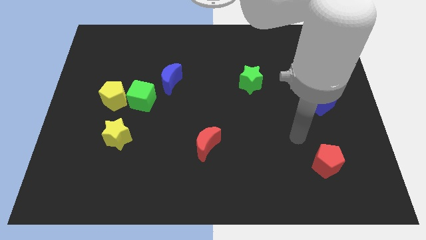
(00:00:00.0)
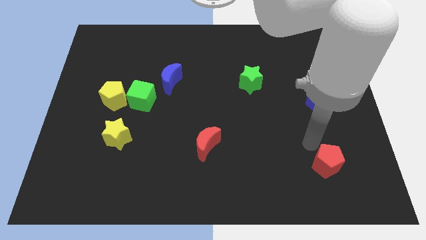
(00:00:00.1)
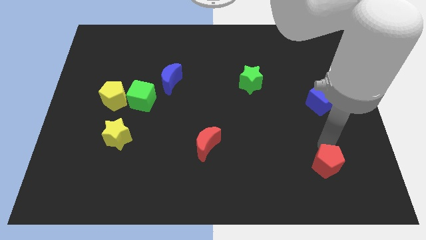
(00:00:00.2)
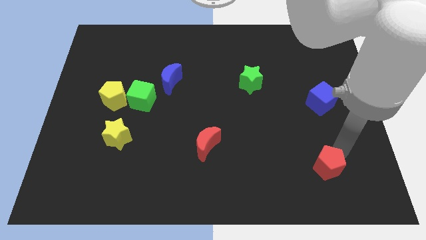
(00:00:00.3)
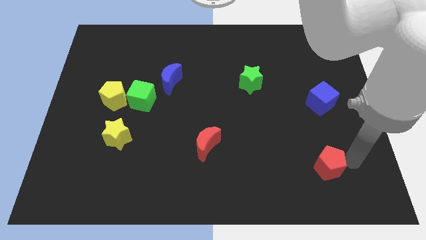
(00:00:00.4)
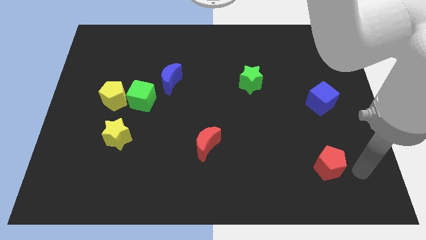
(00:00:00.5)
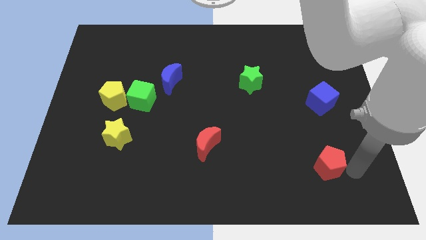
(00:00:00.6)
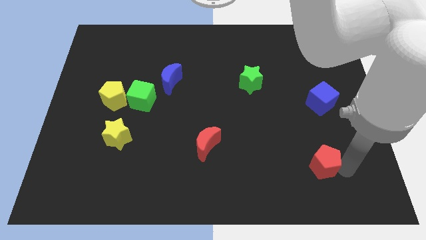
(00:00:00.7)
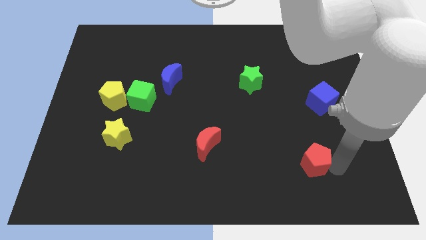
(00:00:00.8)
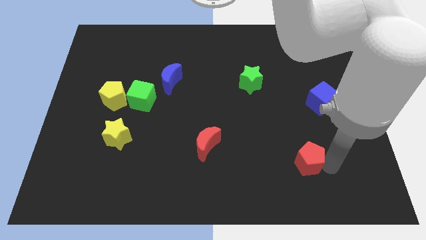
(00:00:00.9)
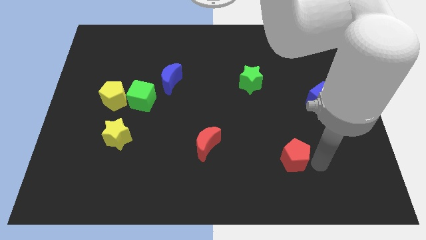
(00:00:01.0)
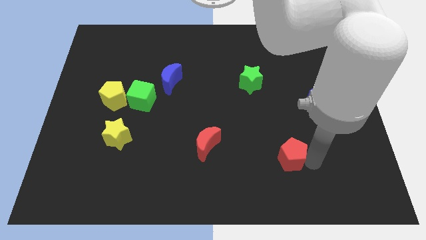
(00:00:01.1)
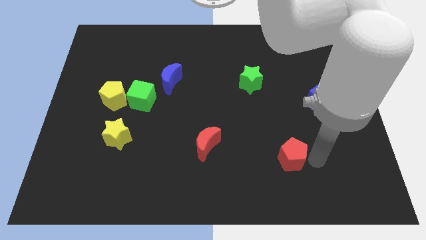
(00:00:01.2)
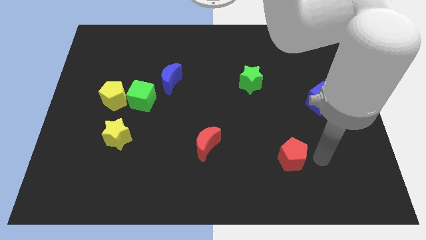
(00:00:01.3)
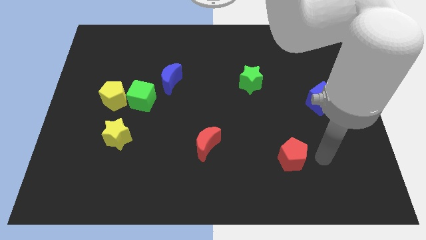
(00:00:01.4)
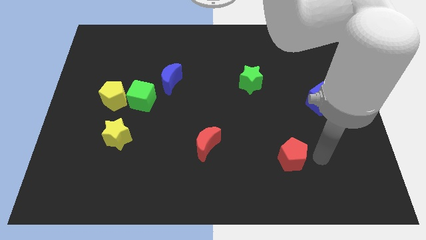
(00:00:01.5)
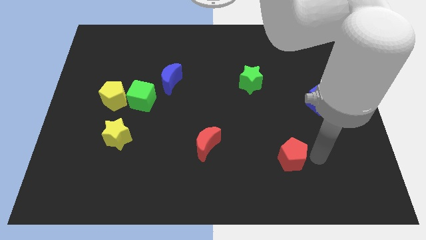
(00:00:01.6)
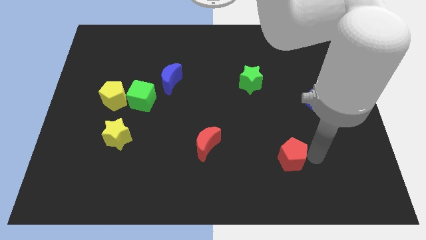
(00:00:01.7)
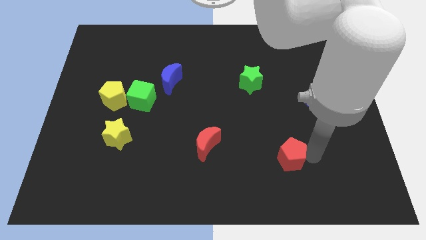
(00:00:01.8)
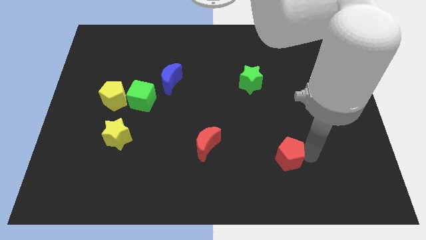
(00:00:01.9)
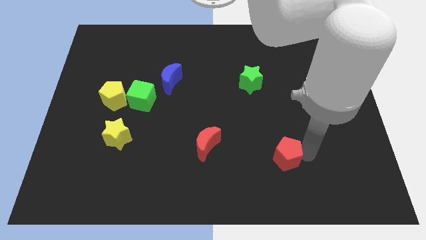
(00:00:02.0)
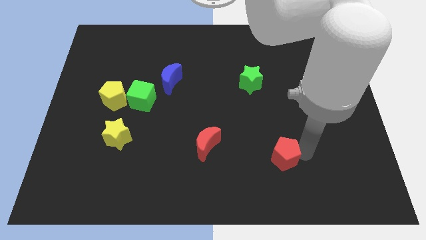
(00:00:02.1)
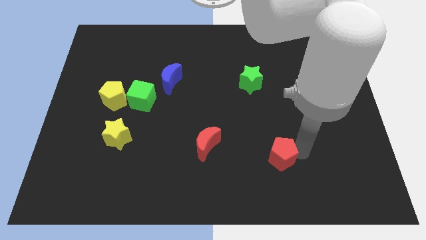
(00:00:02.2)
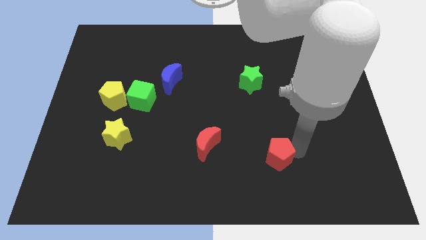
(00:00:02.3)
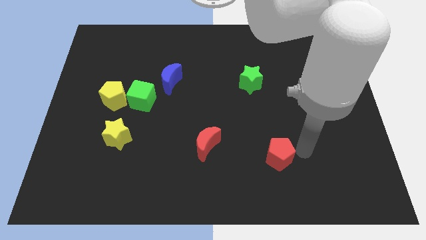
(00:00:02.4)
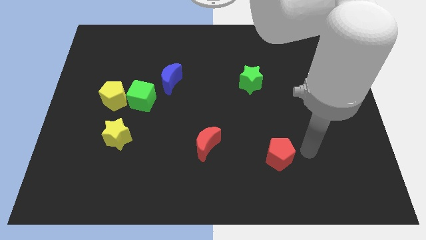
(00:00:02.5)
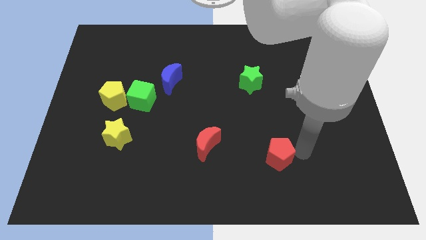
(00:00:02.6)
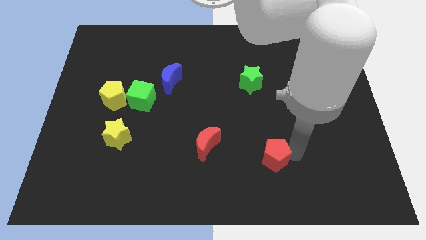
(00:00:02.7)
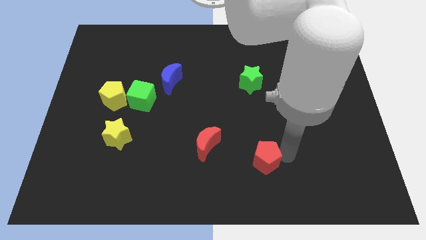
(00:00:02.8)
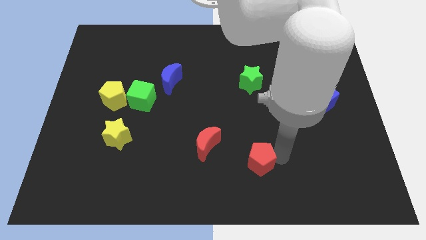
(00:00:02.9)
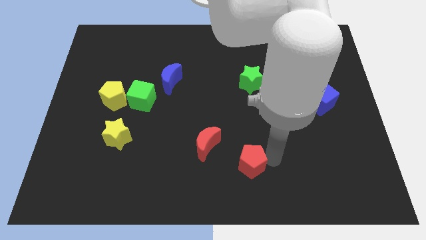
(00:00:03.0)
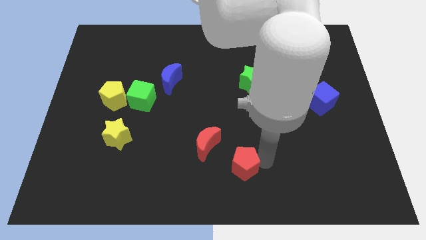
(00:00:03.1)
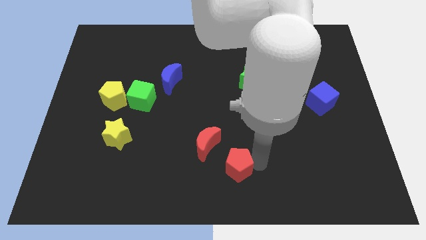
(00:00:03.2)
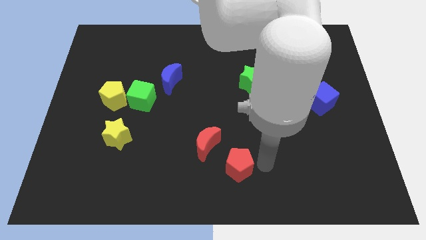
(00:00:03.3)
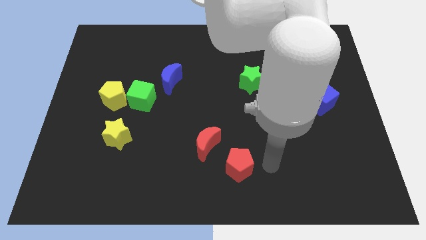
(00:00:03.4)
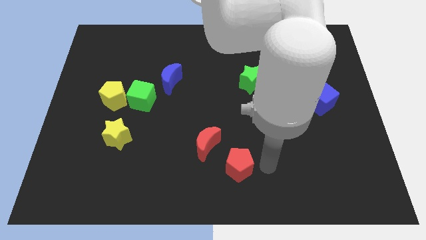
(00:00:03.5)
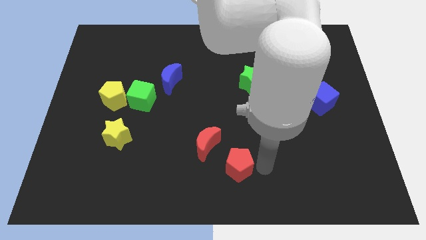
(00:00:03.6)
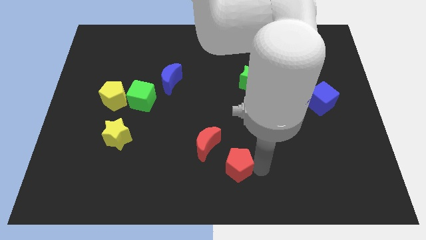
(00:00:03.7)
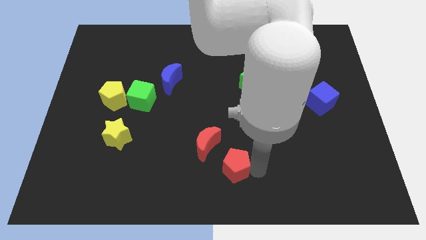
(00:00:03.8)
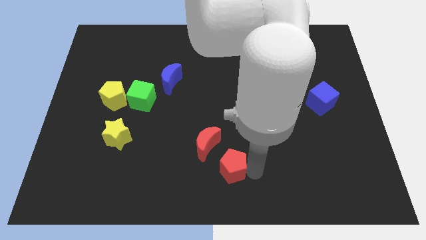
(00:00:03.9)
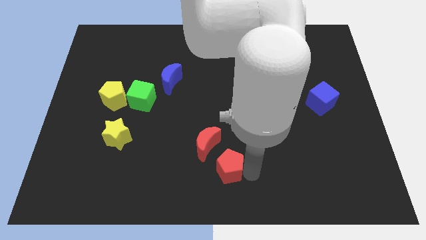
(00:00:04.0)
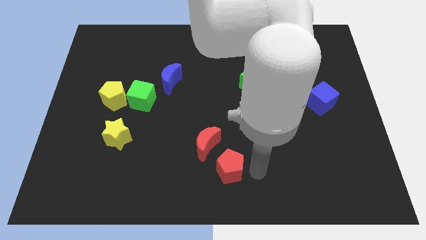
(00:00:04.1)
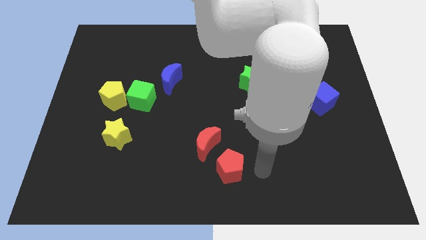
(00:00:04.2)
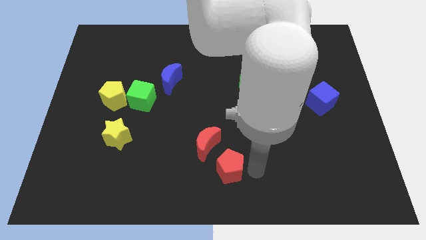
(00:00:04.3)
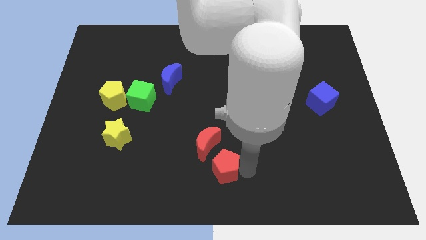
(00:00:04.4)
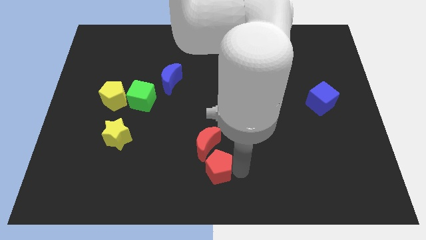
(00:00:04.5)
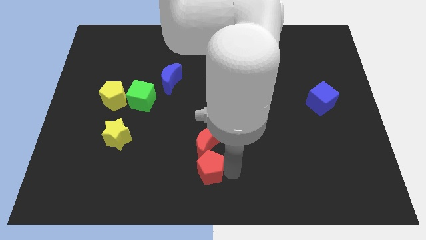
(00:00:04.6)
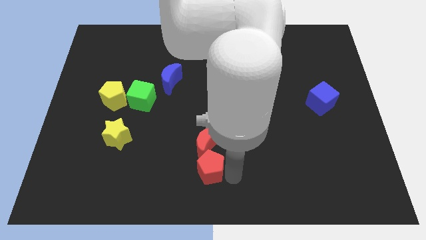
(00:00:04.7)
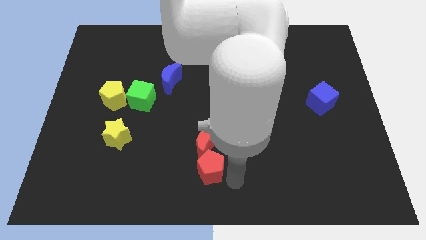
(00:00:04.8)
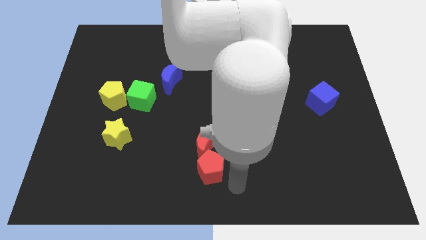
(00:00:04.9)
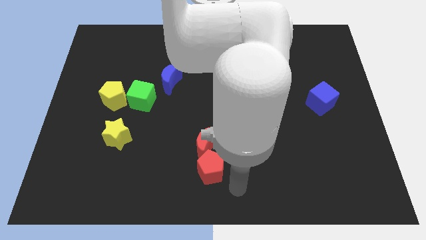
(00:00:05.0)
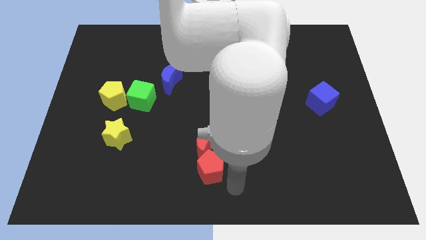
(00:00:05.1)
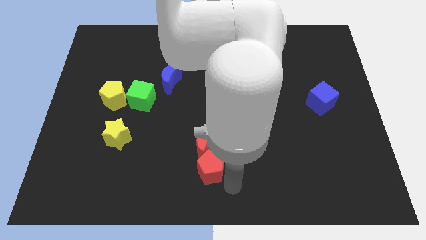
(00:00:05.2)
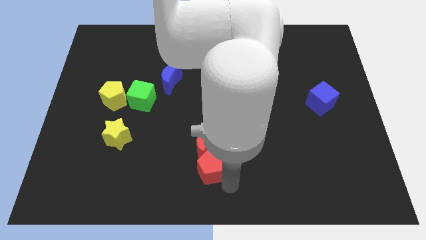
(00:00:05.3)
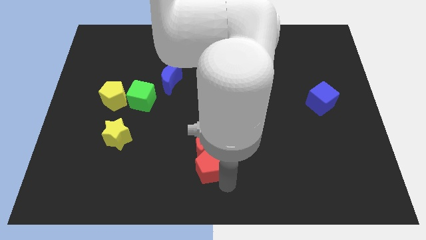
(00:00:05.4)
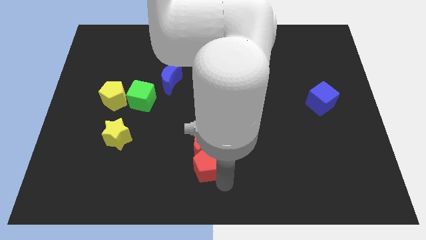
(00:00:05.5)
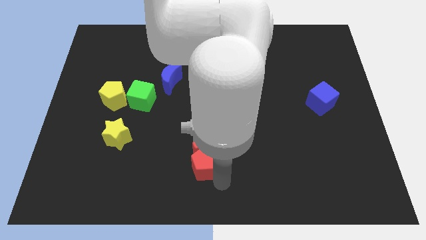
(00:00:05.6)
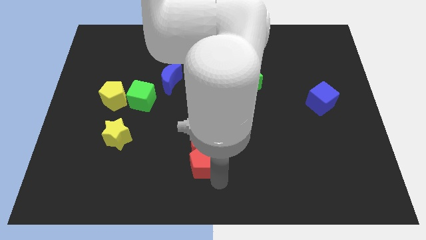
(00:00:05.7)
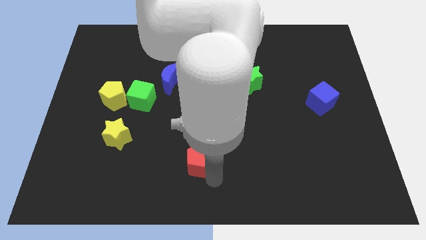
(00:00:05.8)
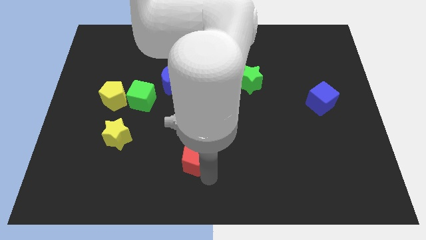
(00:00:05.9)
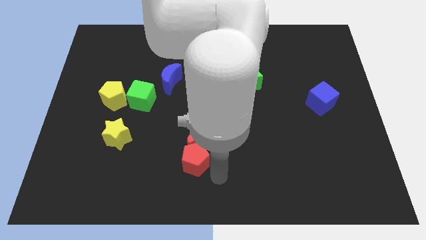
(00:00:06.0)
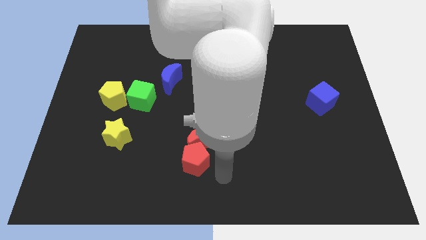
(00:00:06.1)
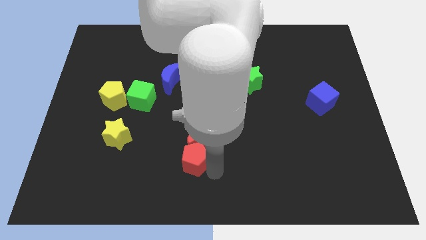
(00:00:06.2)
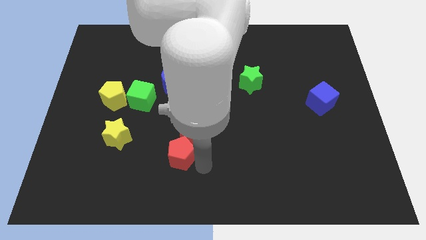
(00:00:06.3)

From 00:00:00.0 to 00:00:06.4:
put the red pentagon to the left of the red moon
